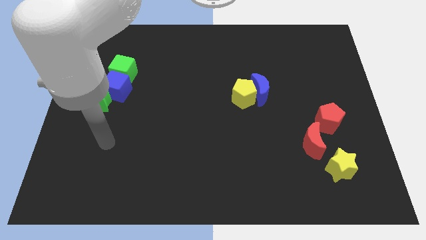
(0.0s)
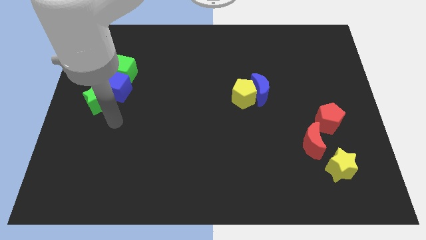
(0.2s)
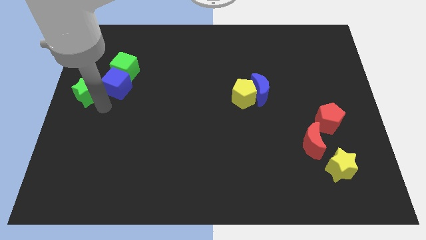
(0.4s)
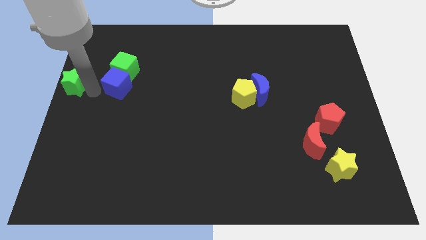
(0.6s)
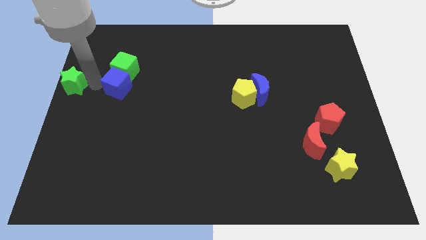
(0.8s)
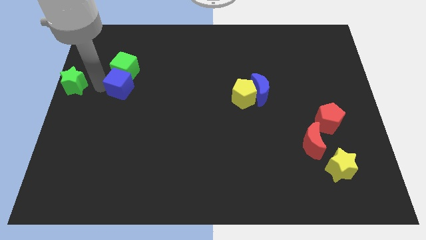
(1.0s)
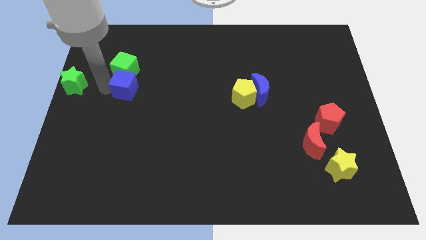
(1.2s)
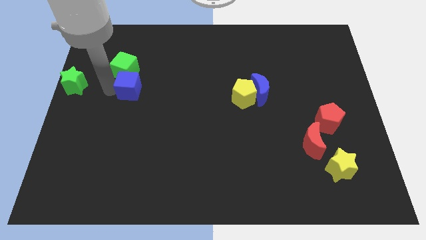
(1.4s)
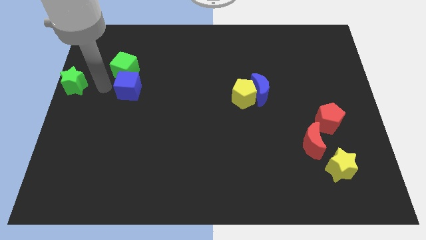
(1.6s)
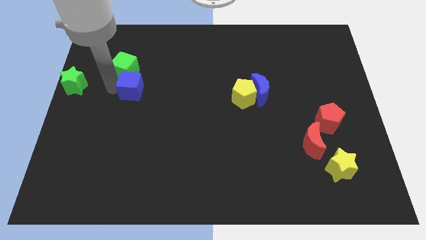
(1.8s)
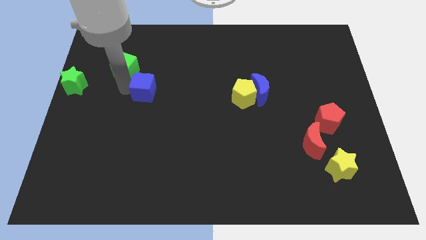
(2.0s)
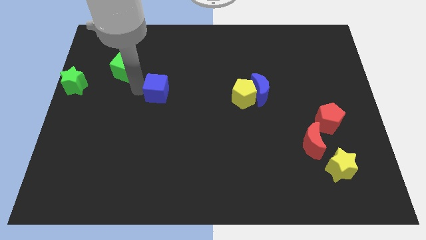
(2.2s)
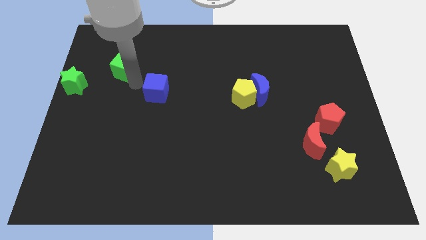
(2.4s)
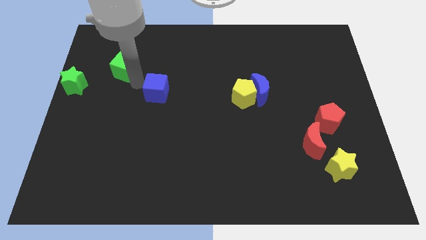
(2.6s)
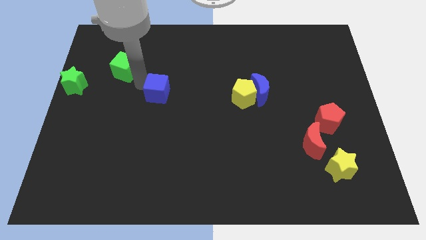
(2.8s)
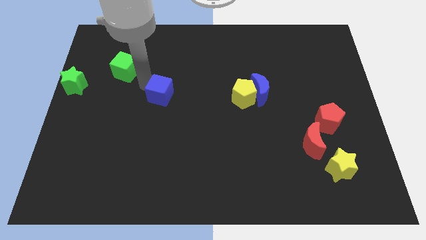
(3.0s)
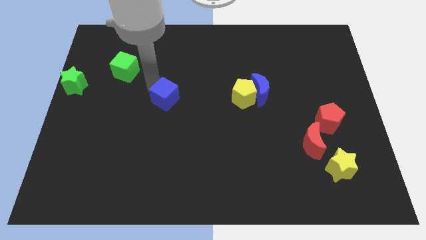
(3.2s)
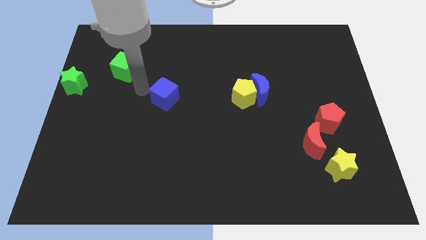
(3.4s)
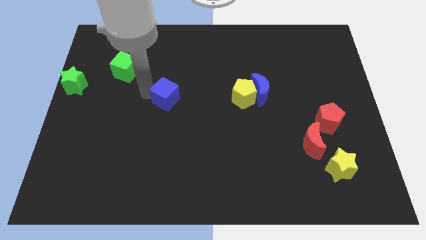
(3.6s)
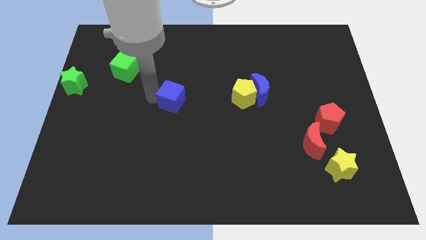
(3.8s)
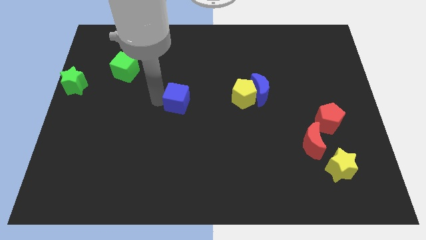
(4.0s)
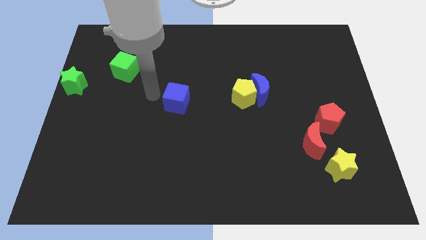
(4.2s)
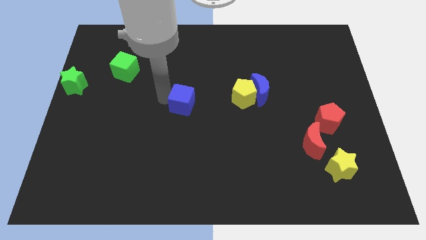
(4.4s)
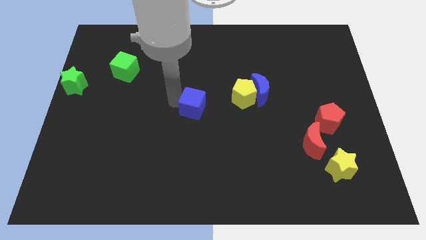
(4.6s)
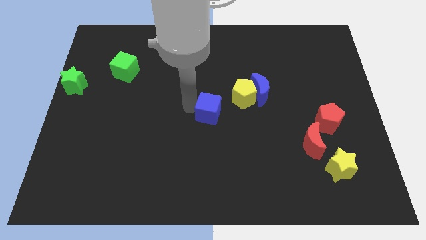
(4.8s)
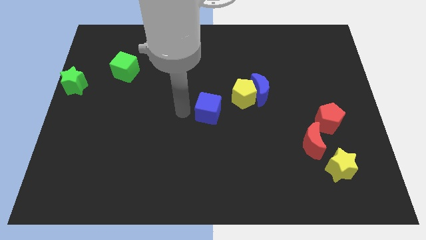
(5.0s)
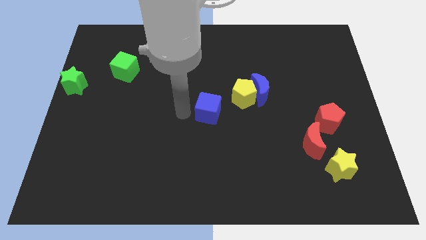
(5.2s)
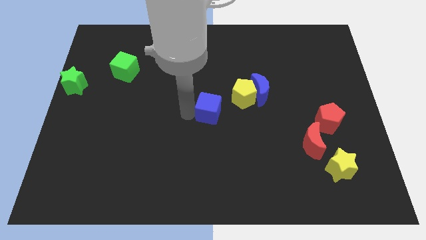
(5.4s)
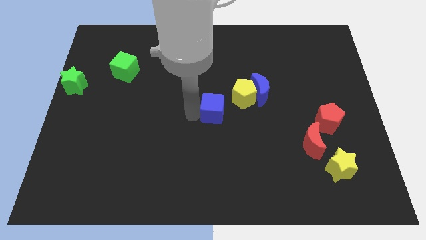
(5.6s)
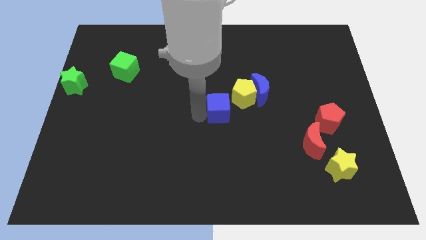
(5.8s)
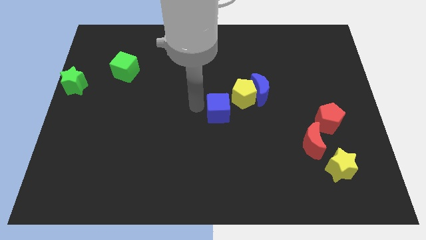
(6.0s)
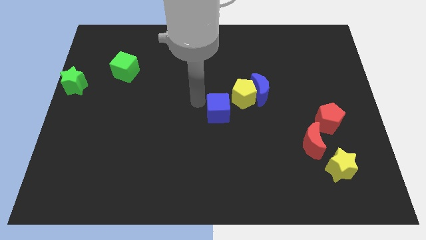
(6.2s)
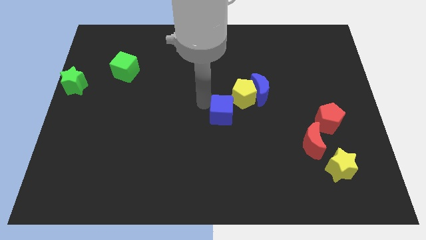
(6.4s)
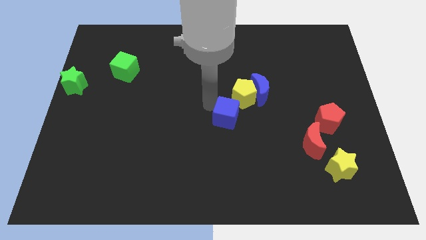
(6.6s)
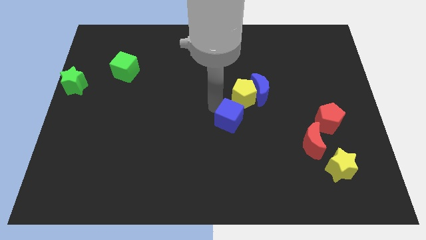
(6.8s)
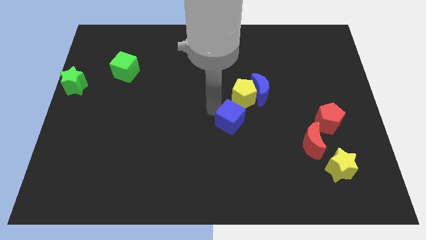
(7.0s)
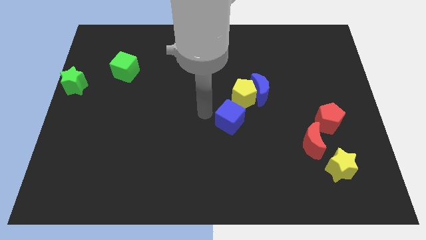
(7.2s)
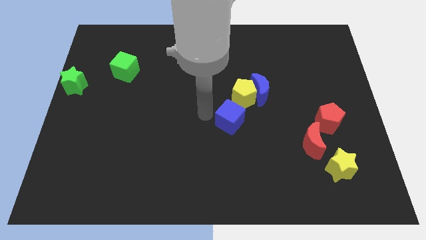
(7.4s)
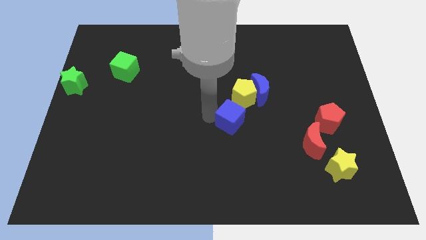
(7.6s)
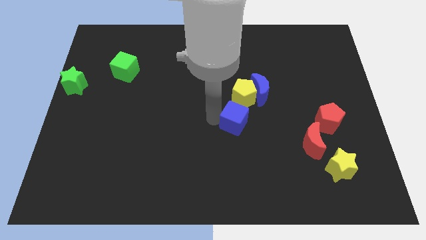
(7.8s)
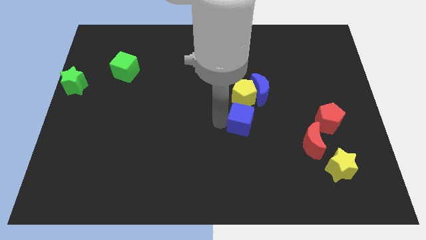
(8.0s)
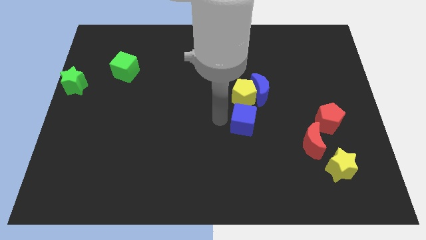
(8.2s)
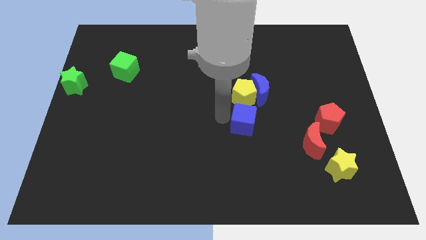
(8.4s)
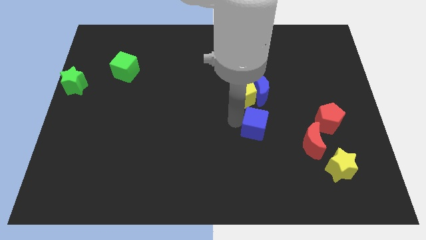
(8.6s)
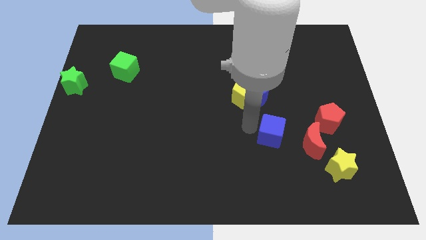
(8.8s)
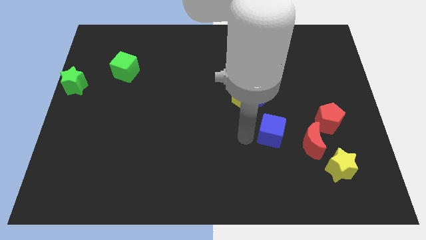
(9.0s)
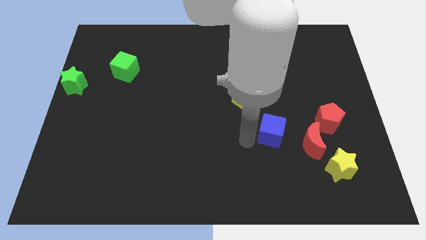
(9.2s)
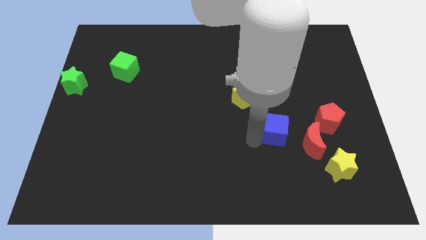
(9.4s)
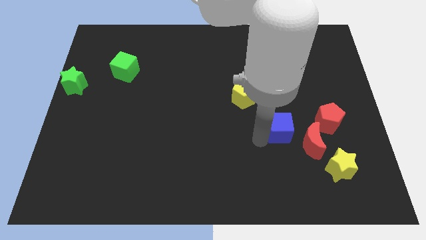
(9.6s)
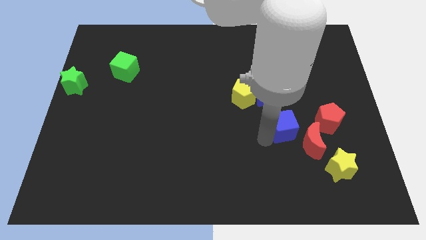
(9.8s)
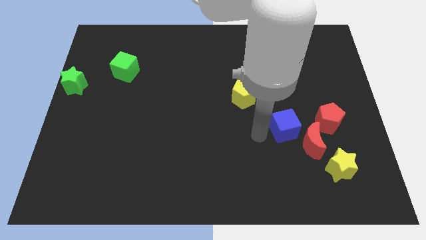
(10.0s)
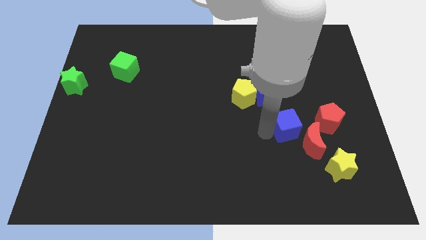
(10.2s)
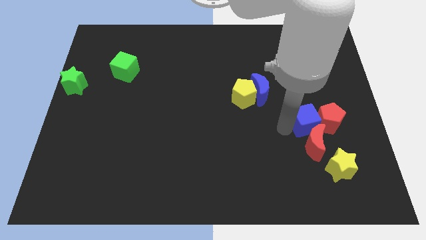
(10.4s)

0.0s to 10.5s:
move the blue cube next to the red pentagon

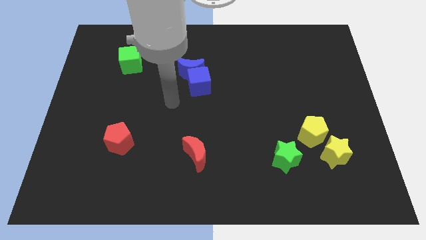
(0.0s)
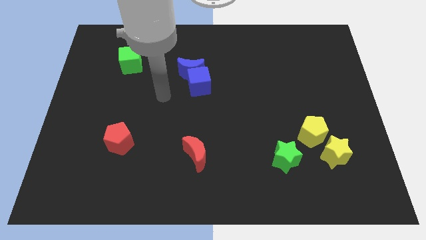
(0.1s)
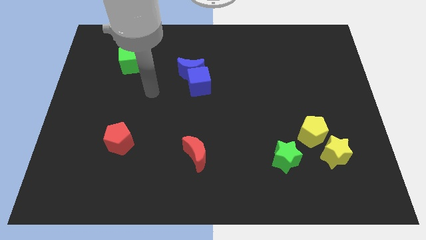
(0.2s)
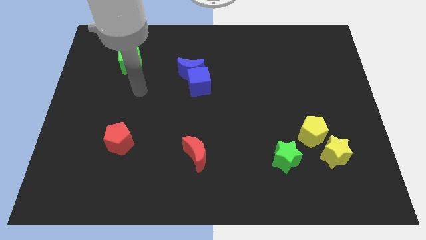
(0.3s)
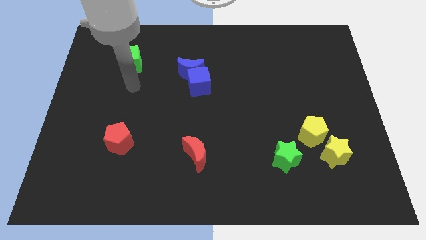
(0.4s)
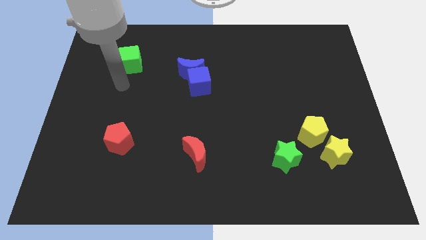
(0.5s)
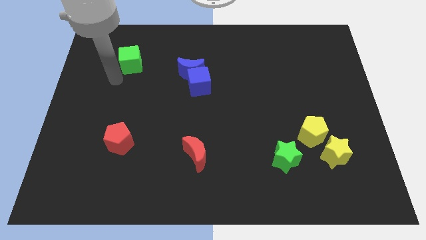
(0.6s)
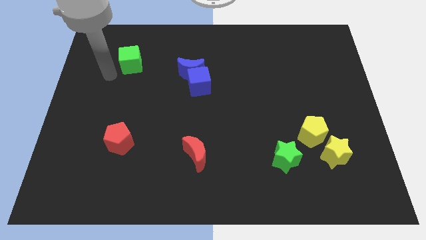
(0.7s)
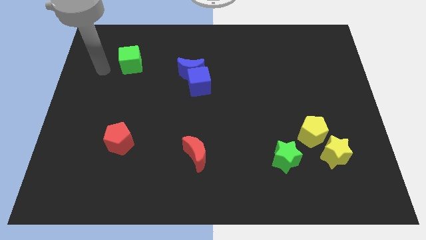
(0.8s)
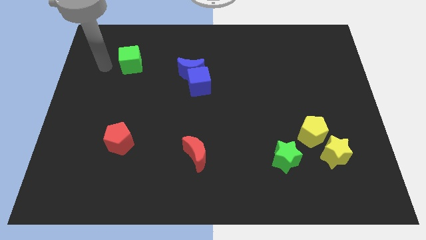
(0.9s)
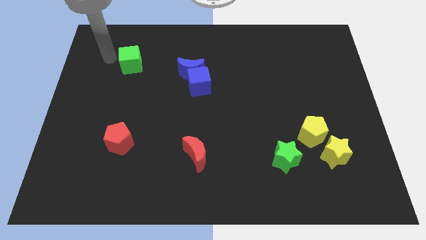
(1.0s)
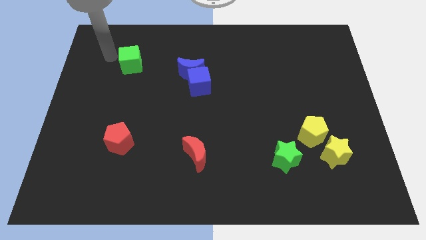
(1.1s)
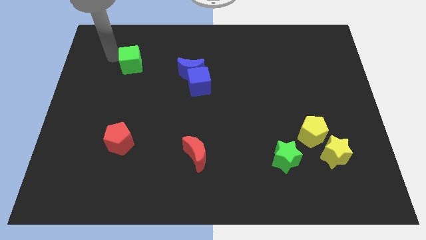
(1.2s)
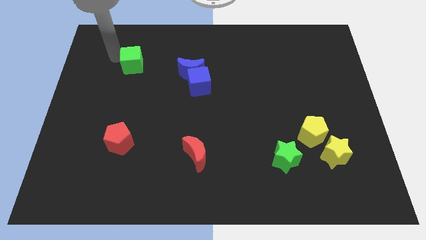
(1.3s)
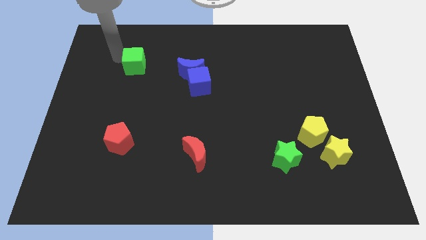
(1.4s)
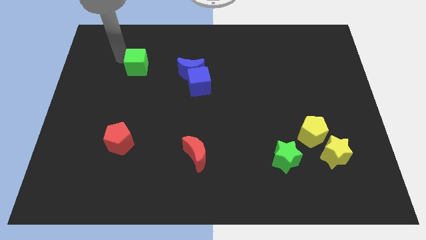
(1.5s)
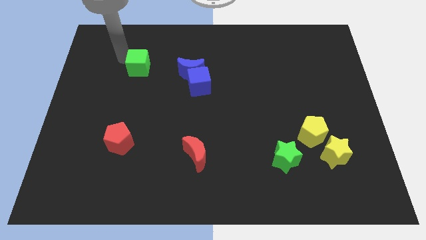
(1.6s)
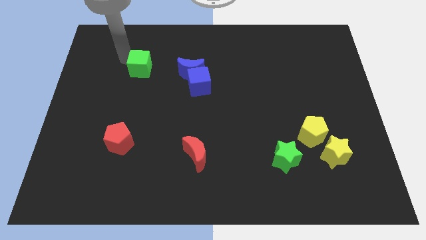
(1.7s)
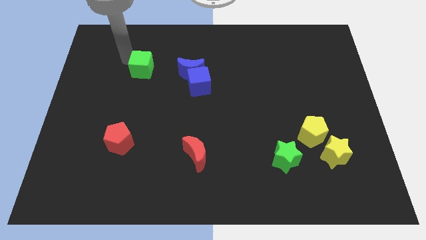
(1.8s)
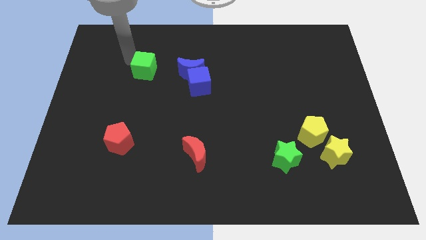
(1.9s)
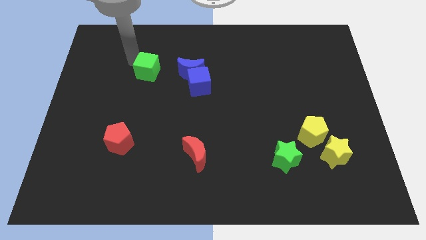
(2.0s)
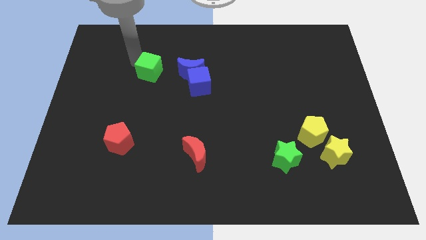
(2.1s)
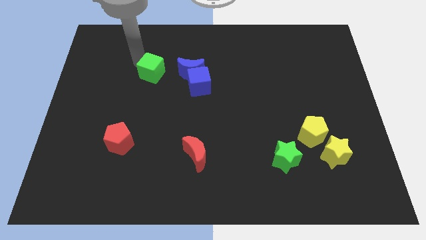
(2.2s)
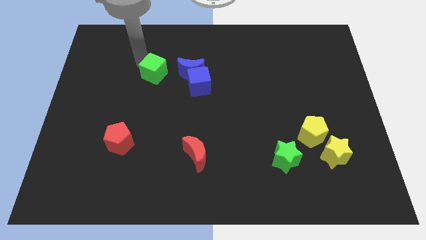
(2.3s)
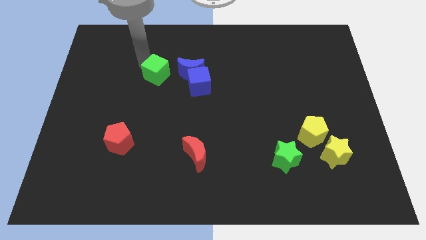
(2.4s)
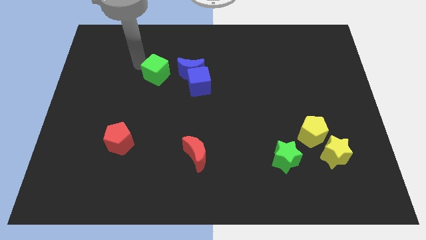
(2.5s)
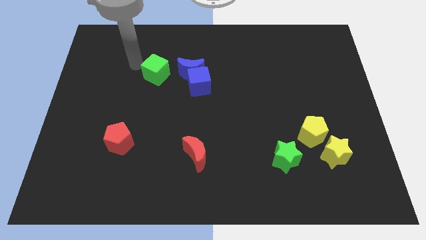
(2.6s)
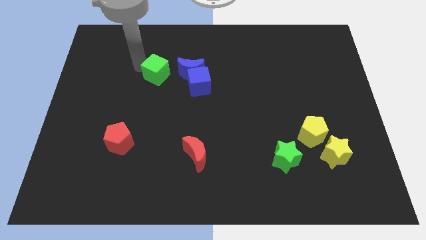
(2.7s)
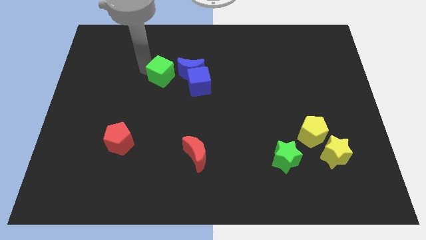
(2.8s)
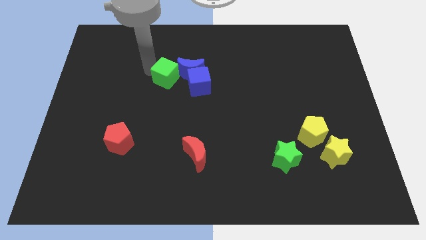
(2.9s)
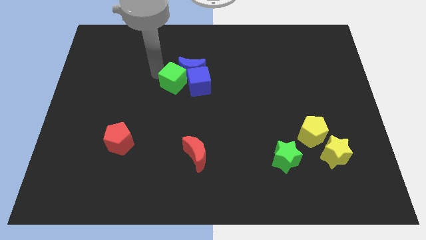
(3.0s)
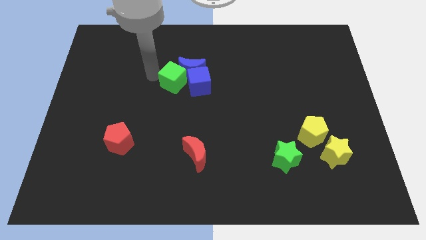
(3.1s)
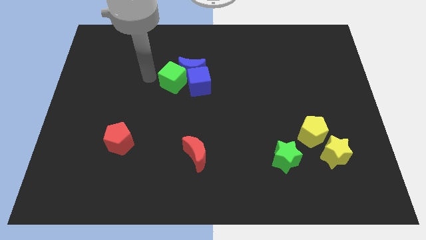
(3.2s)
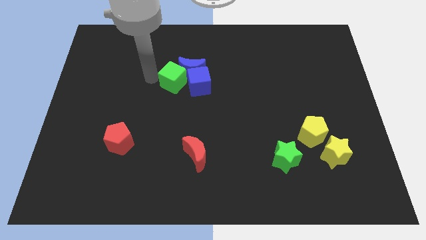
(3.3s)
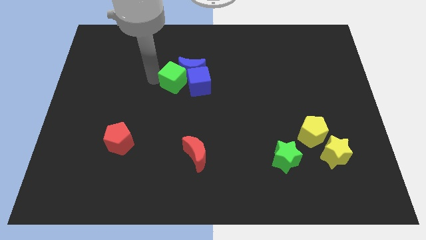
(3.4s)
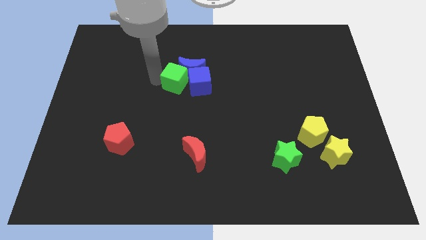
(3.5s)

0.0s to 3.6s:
move the green cube to the blue cube
